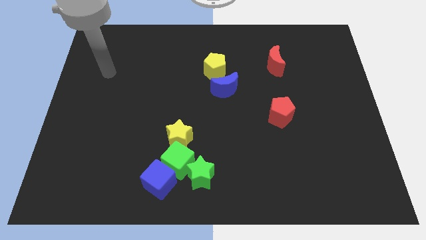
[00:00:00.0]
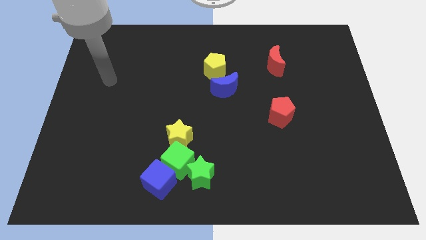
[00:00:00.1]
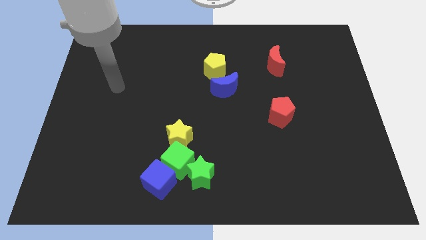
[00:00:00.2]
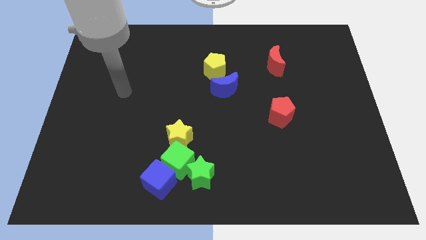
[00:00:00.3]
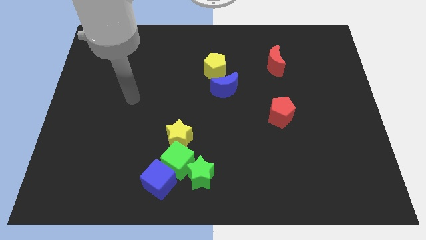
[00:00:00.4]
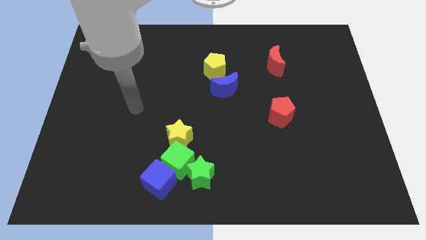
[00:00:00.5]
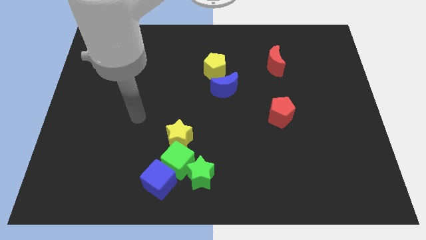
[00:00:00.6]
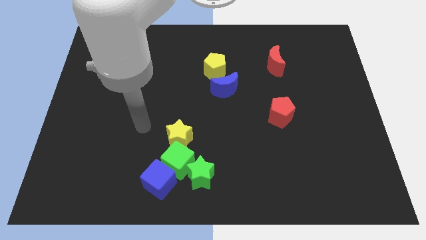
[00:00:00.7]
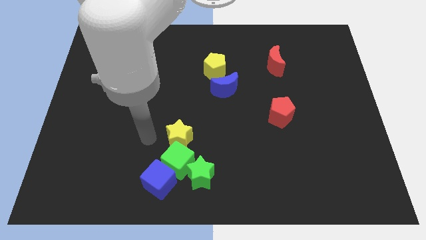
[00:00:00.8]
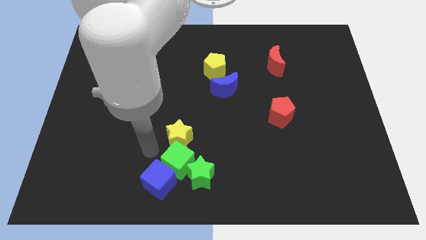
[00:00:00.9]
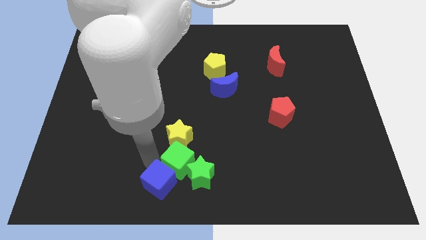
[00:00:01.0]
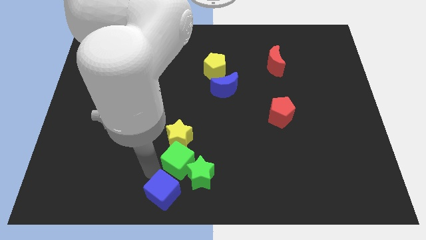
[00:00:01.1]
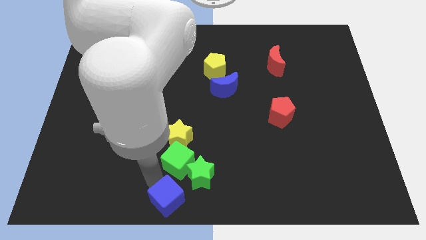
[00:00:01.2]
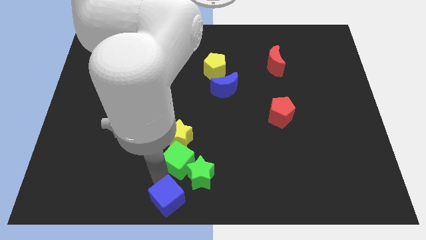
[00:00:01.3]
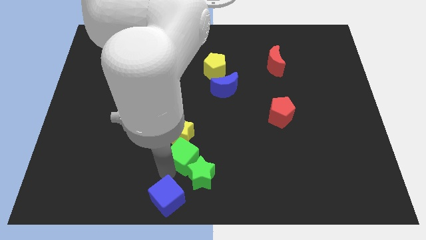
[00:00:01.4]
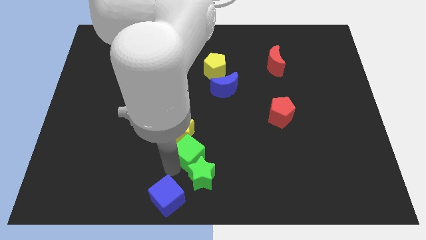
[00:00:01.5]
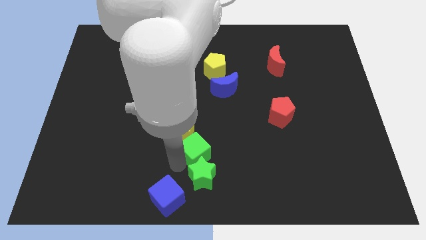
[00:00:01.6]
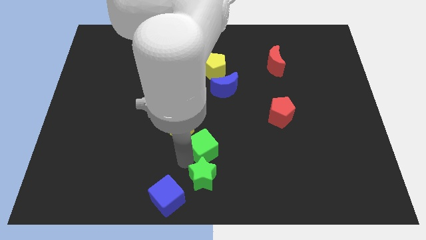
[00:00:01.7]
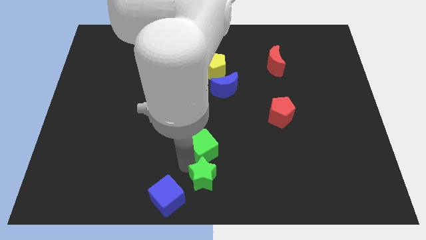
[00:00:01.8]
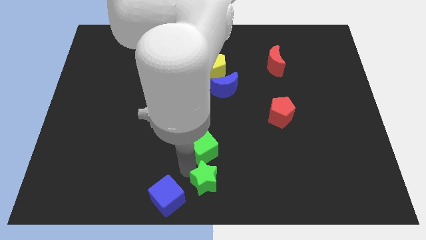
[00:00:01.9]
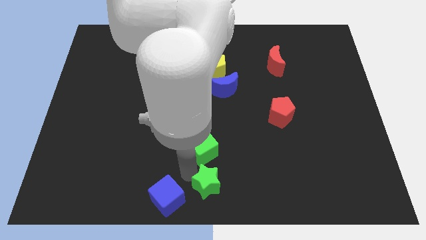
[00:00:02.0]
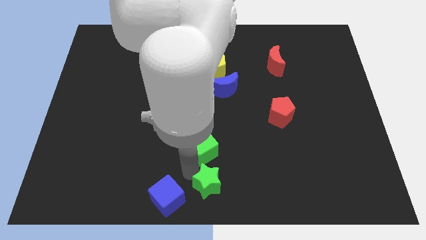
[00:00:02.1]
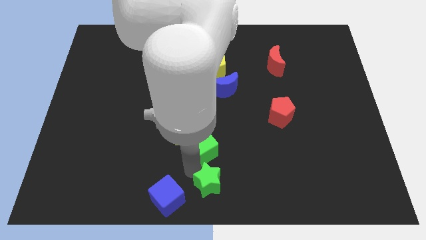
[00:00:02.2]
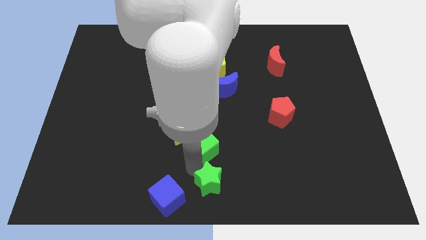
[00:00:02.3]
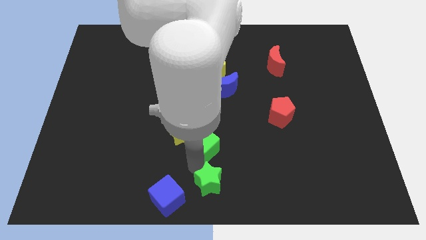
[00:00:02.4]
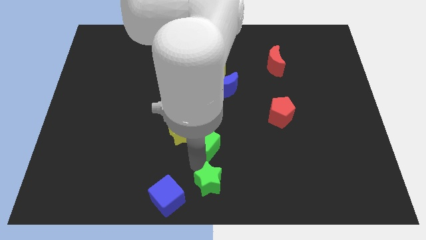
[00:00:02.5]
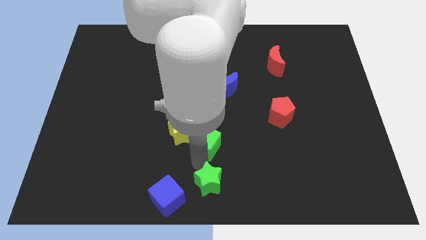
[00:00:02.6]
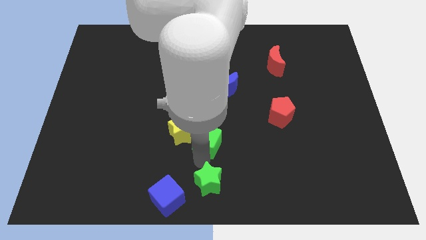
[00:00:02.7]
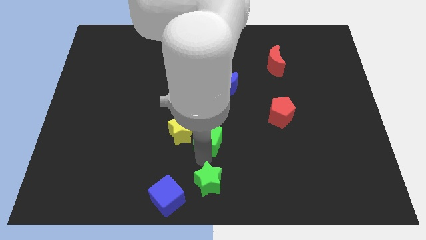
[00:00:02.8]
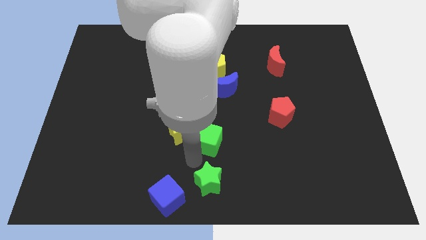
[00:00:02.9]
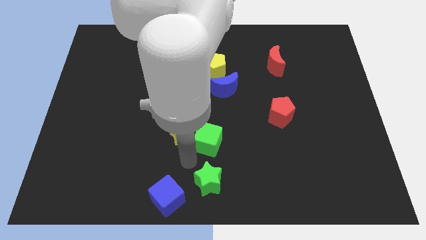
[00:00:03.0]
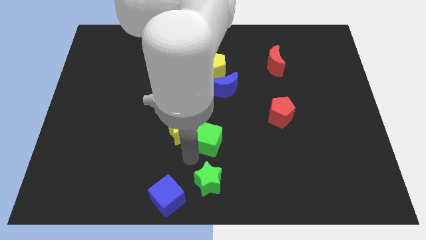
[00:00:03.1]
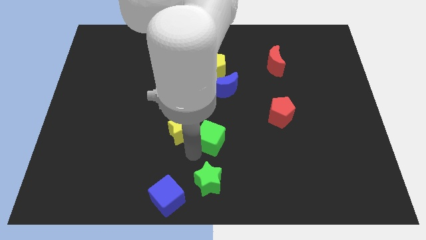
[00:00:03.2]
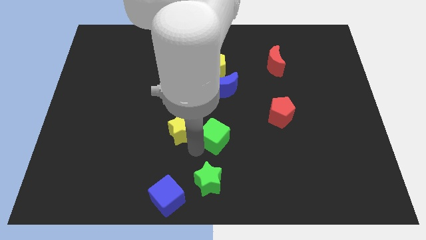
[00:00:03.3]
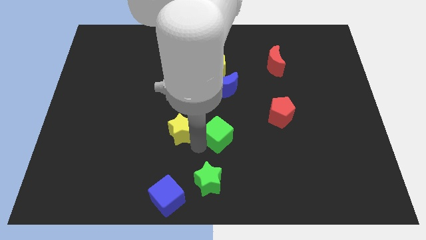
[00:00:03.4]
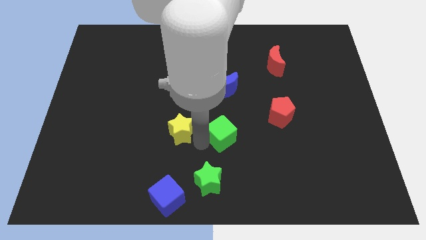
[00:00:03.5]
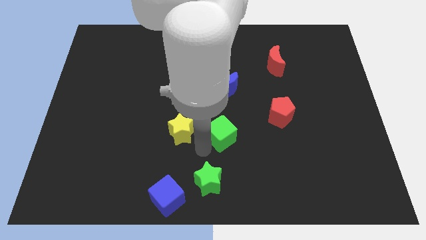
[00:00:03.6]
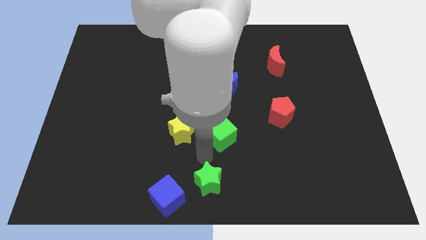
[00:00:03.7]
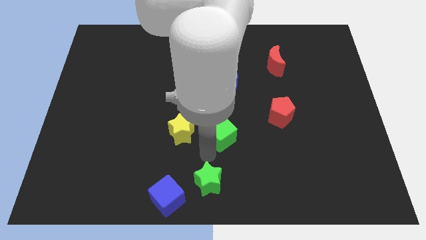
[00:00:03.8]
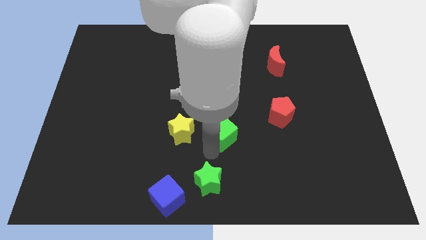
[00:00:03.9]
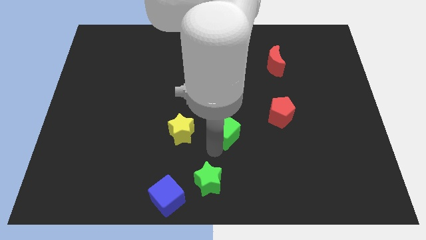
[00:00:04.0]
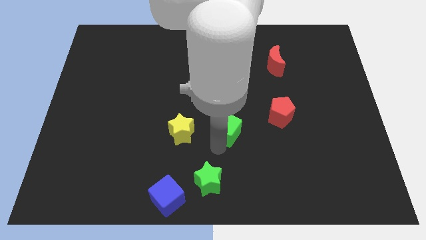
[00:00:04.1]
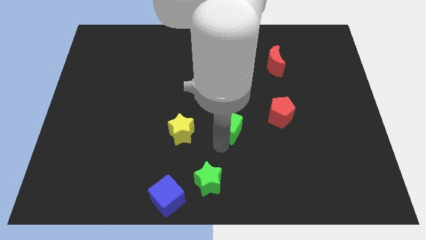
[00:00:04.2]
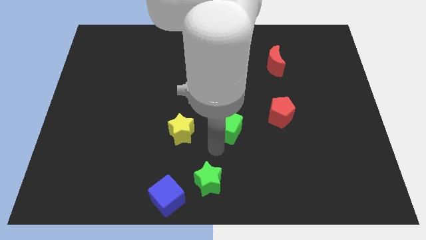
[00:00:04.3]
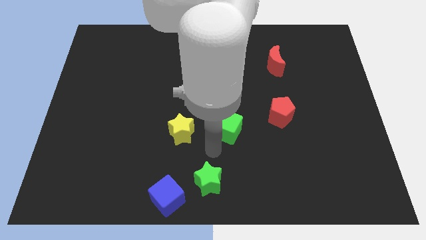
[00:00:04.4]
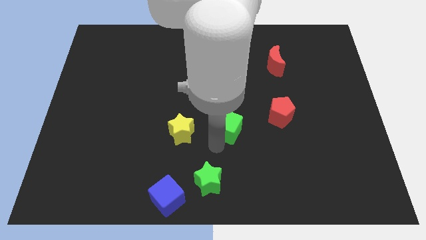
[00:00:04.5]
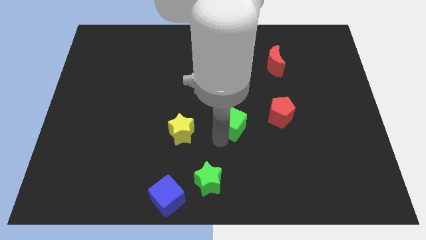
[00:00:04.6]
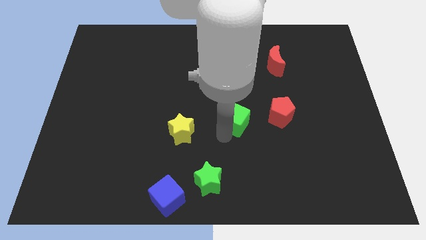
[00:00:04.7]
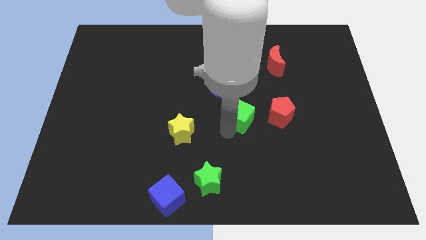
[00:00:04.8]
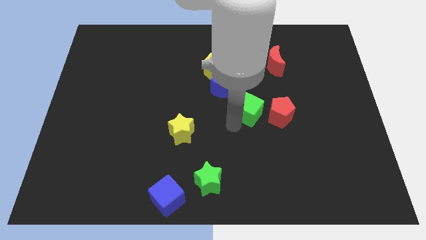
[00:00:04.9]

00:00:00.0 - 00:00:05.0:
push the green cube upwards and to the right diagonally

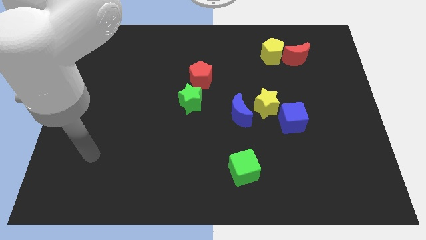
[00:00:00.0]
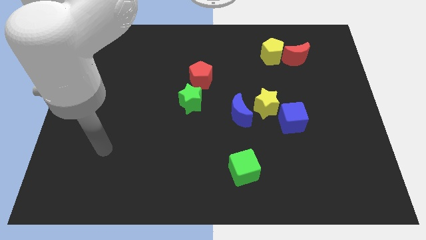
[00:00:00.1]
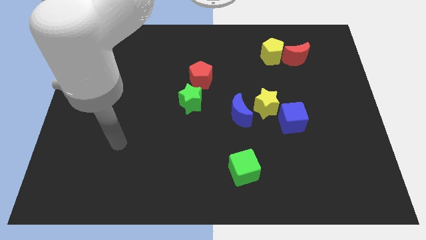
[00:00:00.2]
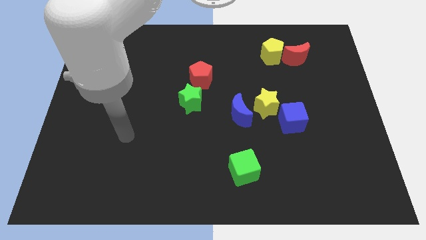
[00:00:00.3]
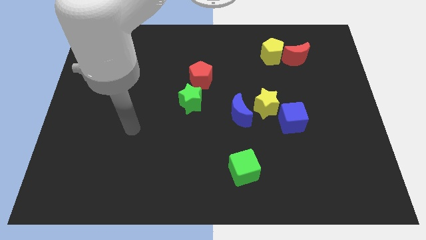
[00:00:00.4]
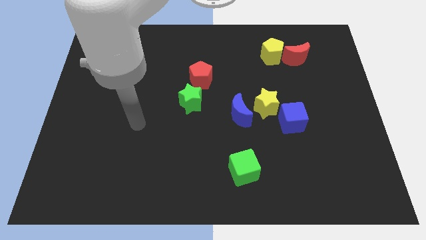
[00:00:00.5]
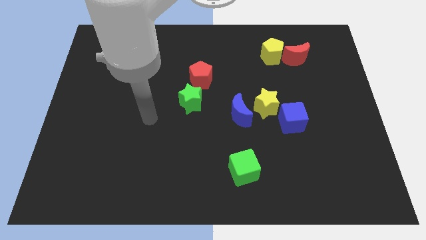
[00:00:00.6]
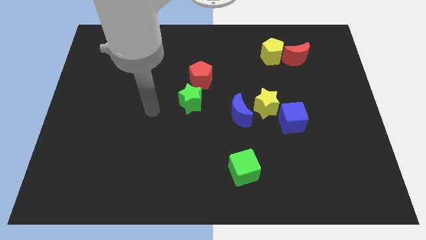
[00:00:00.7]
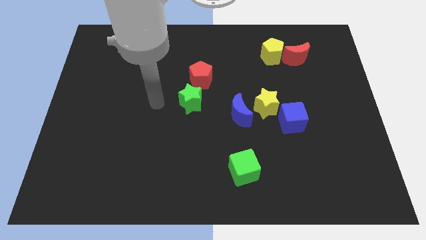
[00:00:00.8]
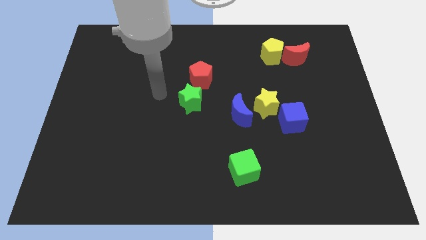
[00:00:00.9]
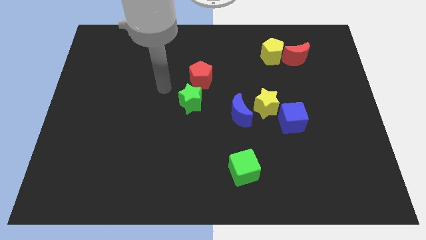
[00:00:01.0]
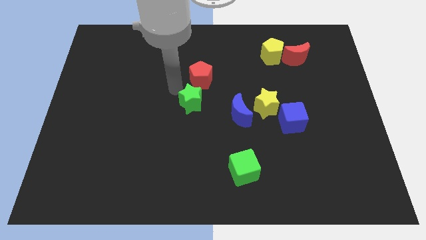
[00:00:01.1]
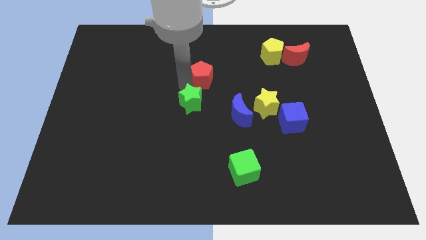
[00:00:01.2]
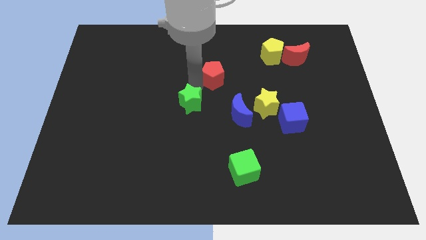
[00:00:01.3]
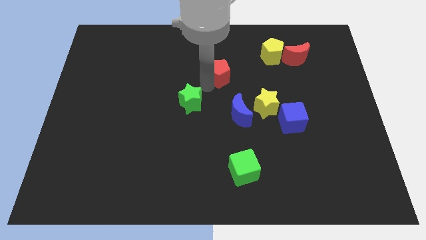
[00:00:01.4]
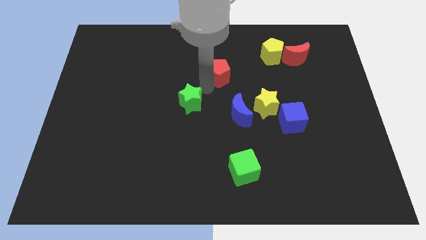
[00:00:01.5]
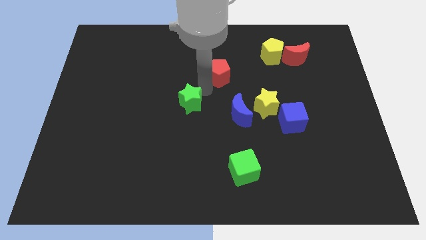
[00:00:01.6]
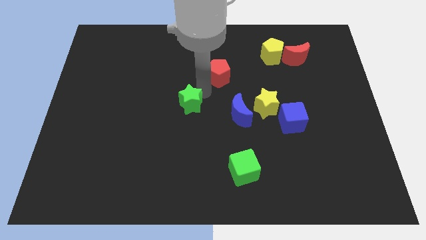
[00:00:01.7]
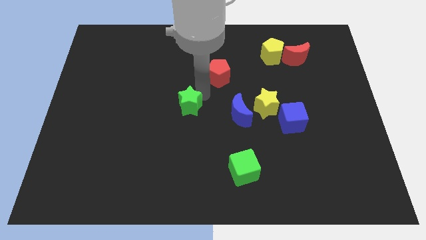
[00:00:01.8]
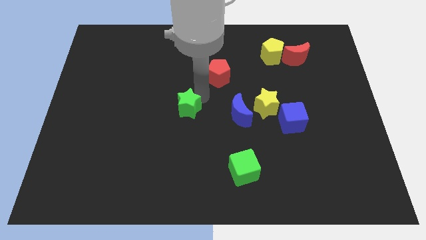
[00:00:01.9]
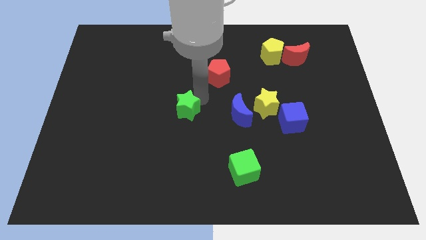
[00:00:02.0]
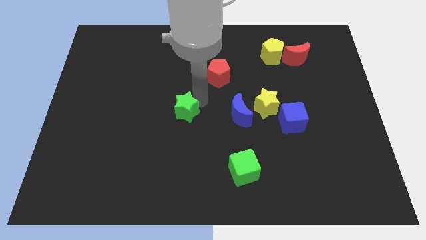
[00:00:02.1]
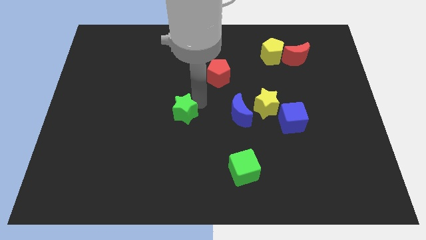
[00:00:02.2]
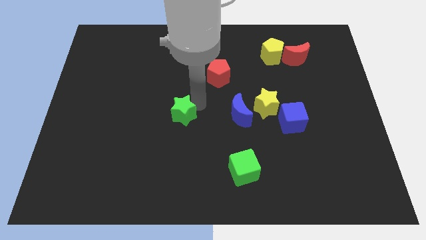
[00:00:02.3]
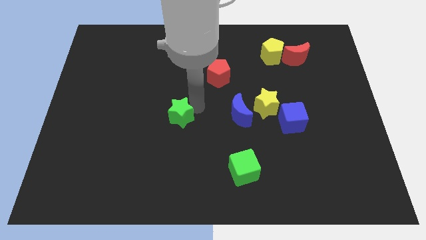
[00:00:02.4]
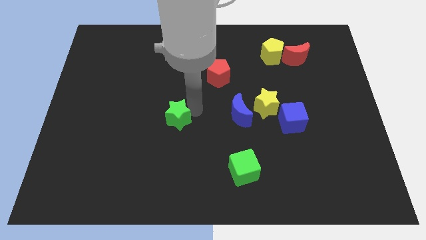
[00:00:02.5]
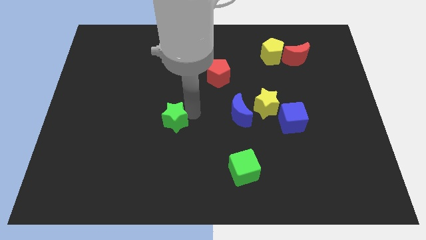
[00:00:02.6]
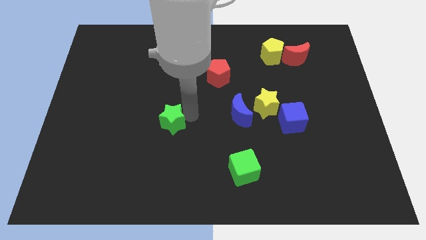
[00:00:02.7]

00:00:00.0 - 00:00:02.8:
move the green star down and to the left somewhat

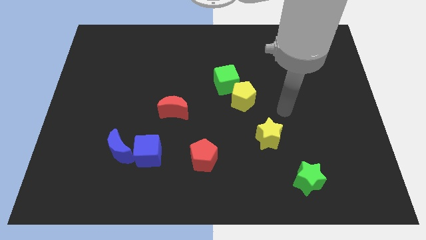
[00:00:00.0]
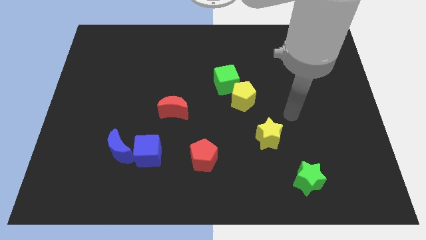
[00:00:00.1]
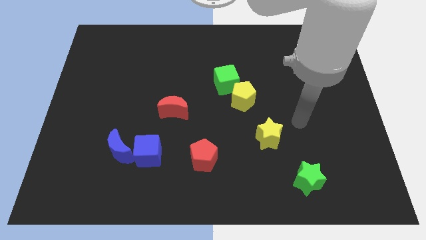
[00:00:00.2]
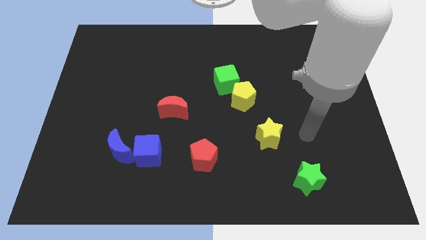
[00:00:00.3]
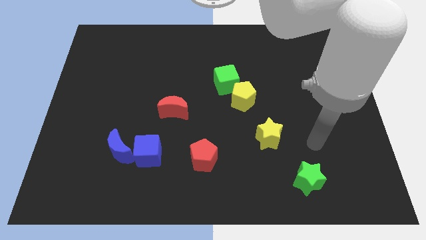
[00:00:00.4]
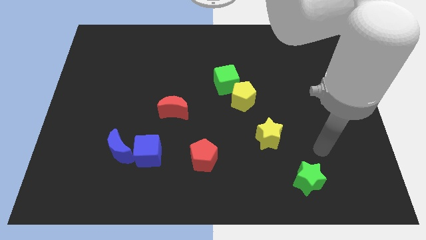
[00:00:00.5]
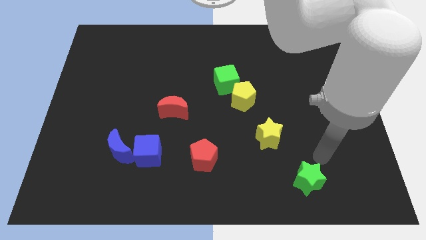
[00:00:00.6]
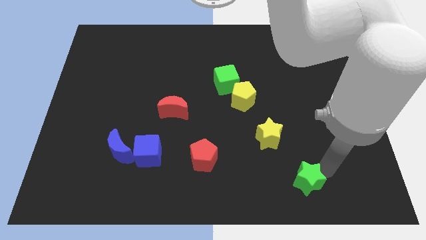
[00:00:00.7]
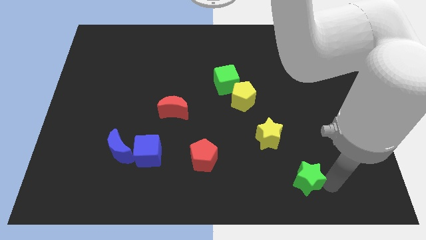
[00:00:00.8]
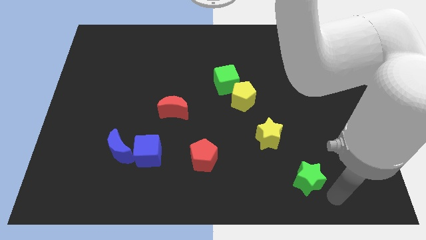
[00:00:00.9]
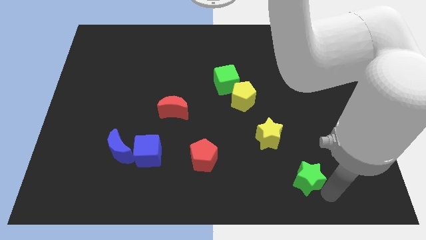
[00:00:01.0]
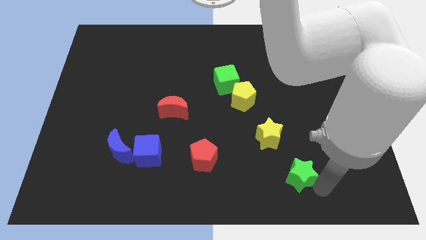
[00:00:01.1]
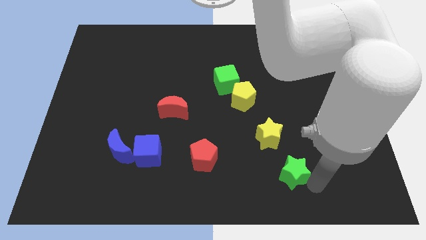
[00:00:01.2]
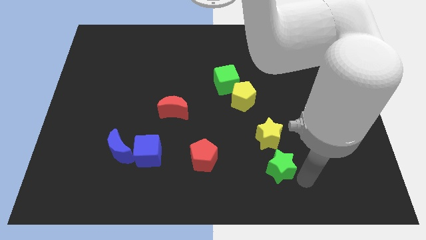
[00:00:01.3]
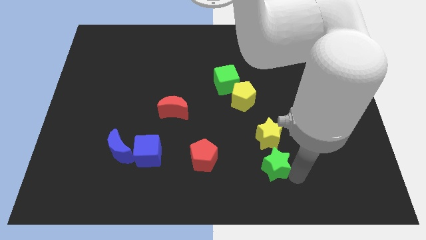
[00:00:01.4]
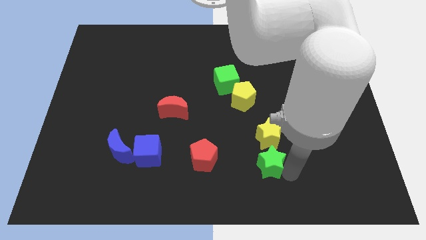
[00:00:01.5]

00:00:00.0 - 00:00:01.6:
slightly move the green star up and to the left diagonally
